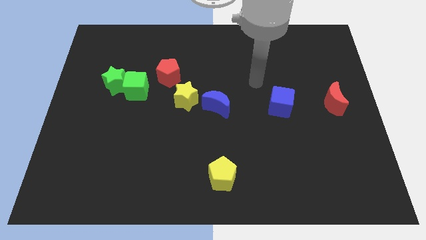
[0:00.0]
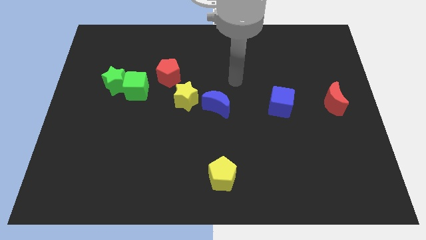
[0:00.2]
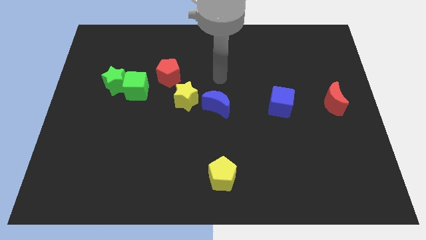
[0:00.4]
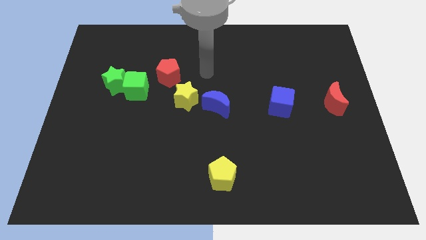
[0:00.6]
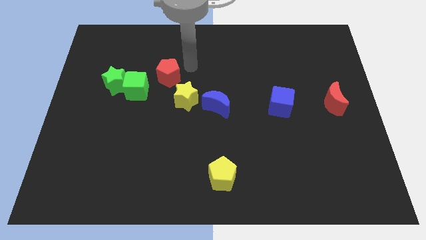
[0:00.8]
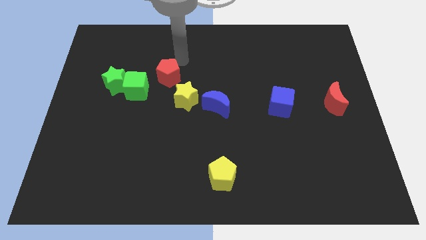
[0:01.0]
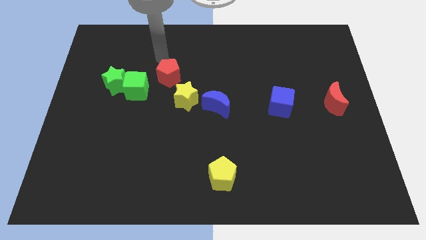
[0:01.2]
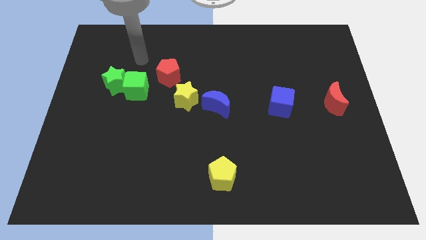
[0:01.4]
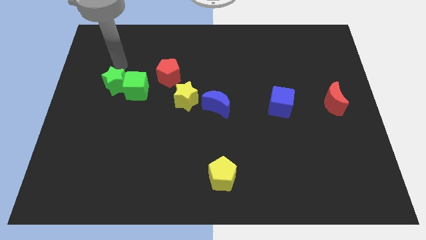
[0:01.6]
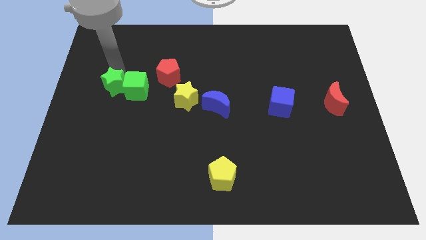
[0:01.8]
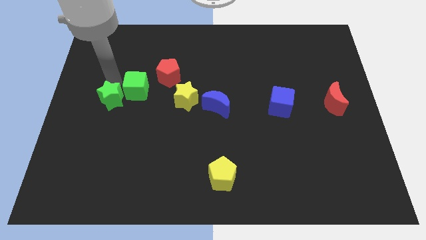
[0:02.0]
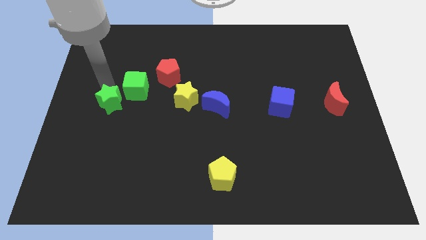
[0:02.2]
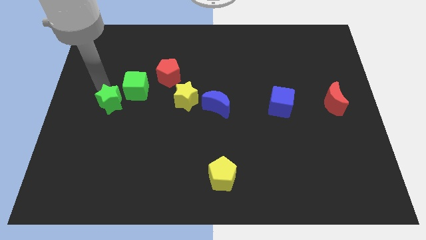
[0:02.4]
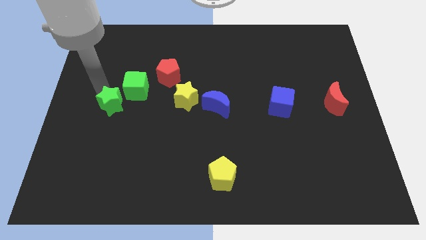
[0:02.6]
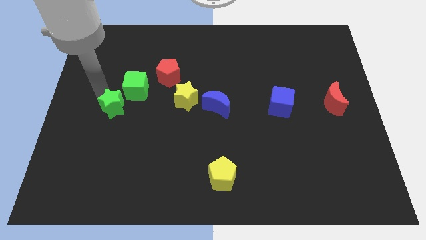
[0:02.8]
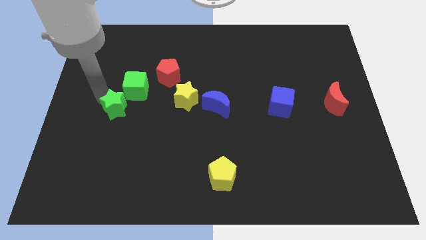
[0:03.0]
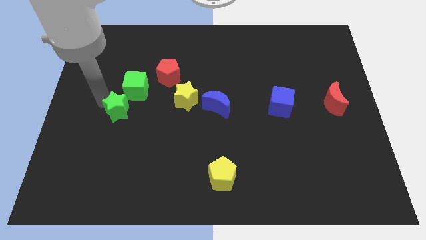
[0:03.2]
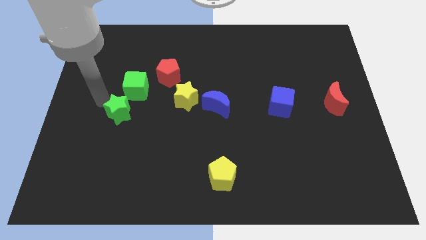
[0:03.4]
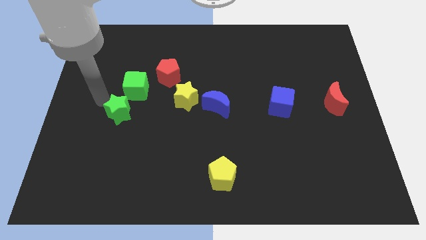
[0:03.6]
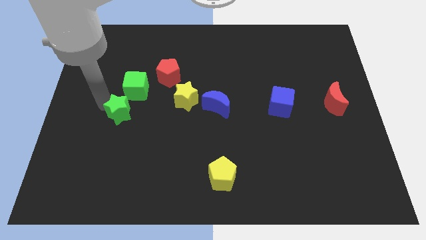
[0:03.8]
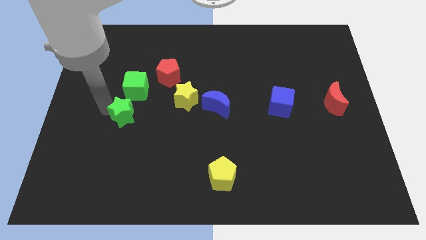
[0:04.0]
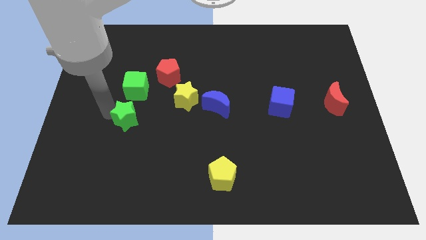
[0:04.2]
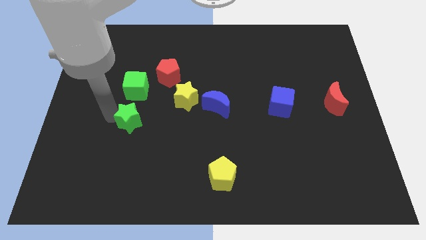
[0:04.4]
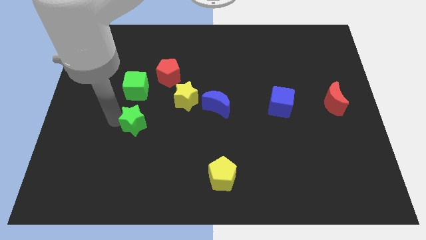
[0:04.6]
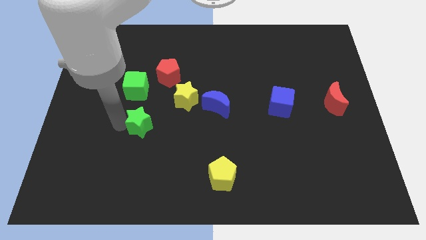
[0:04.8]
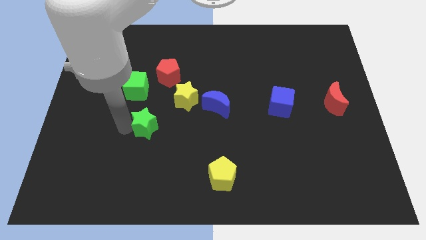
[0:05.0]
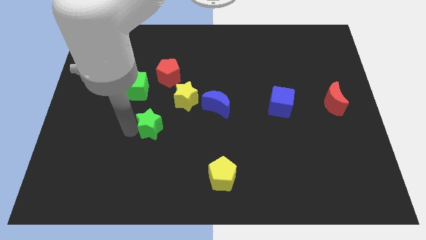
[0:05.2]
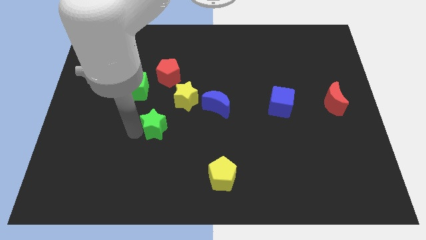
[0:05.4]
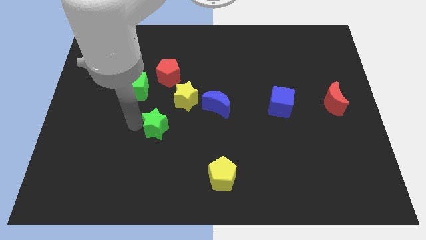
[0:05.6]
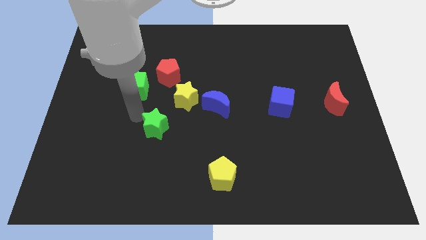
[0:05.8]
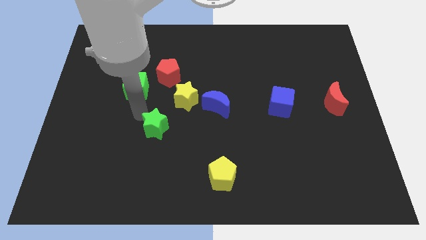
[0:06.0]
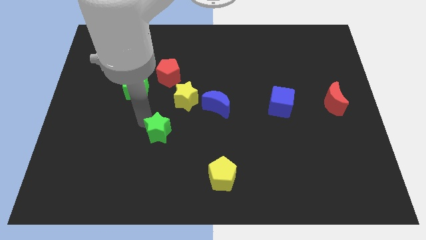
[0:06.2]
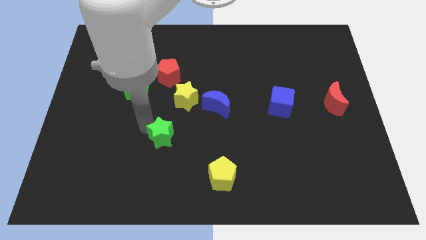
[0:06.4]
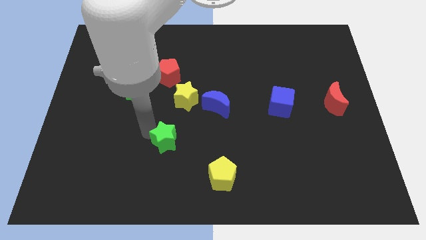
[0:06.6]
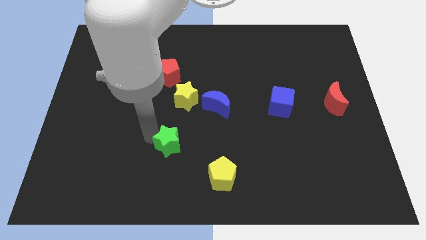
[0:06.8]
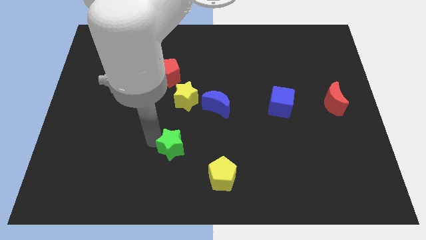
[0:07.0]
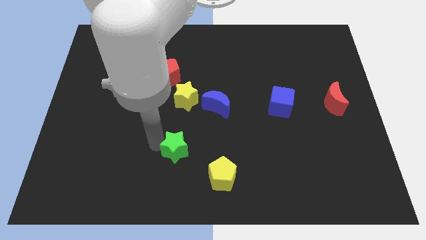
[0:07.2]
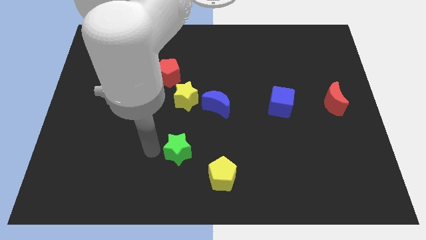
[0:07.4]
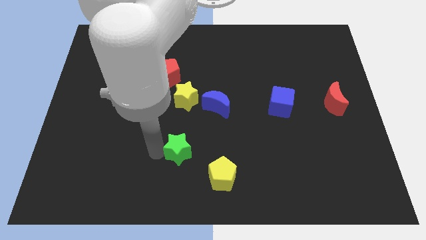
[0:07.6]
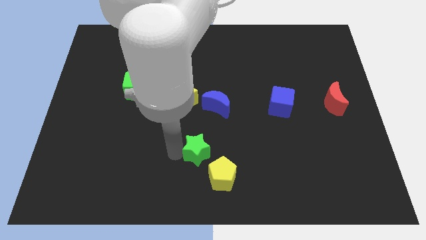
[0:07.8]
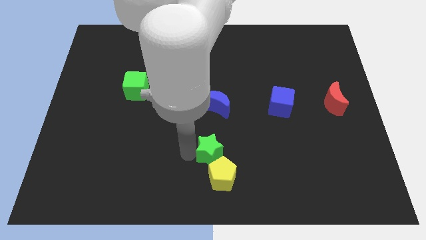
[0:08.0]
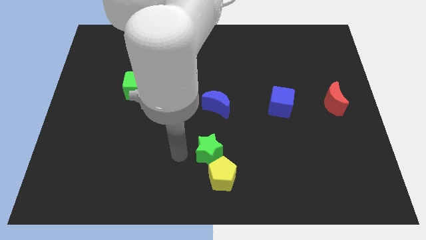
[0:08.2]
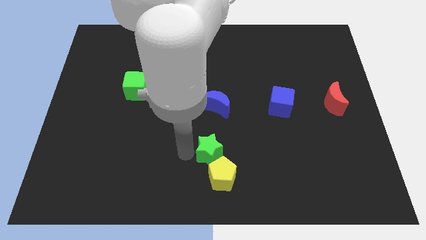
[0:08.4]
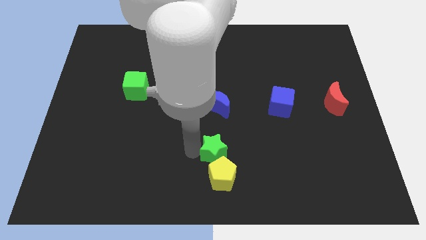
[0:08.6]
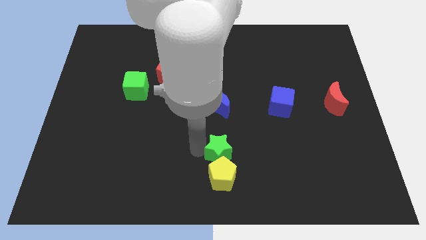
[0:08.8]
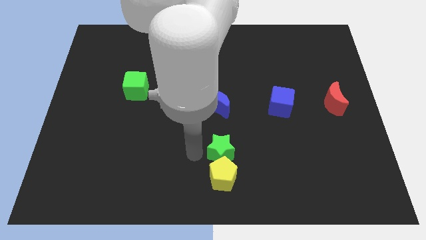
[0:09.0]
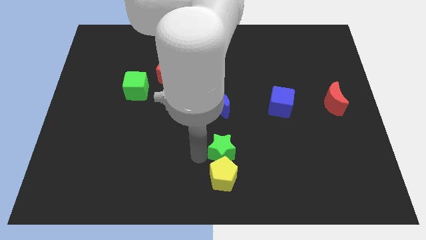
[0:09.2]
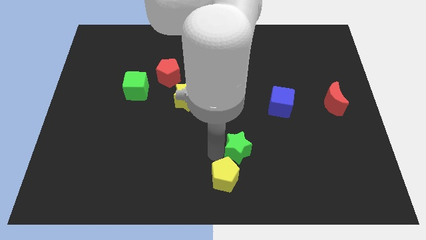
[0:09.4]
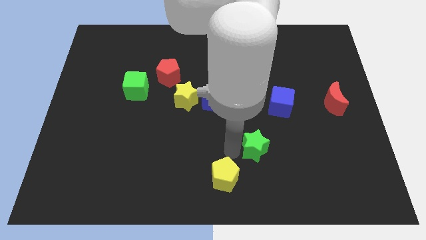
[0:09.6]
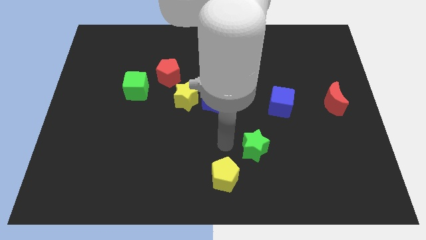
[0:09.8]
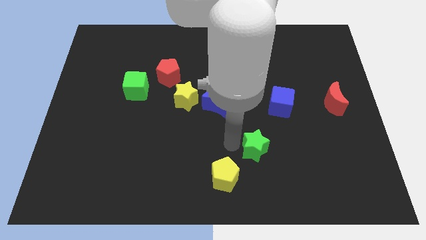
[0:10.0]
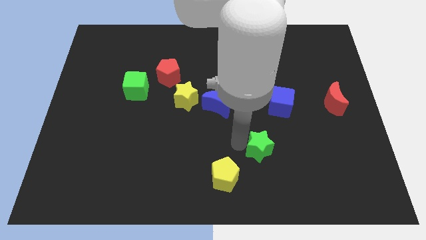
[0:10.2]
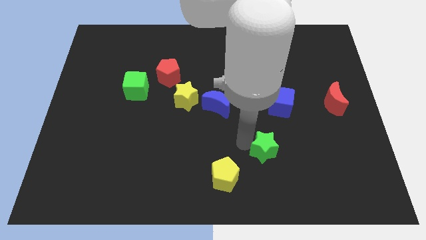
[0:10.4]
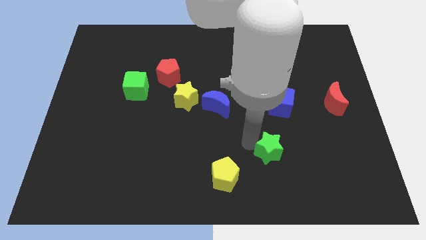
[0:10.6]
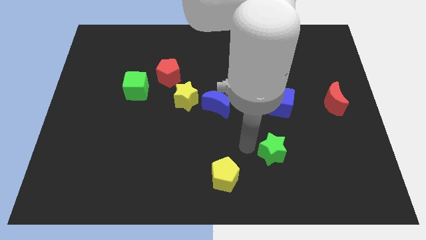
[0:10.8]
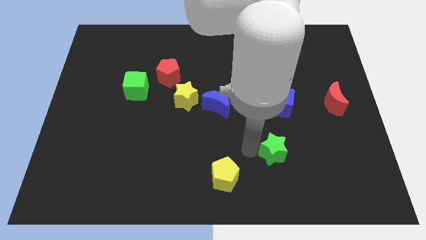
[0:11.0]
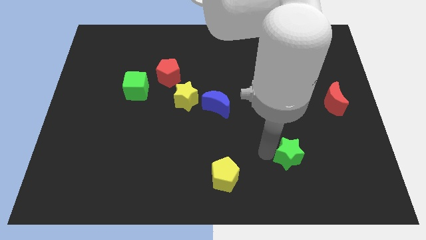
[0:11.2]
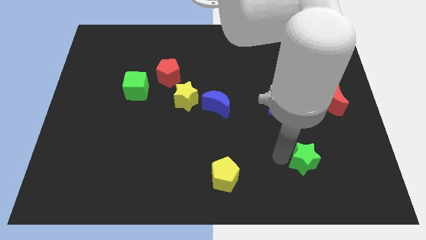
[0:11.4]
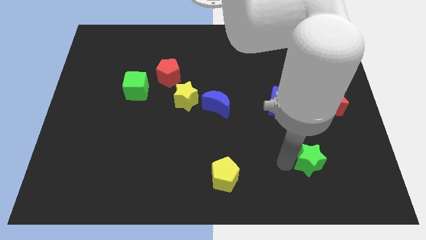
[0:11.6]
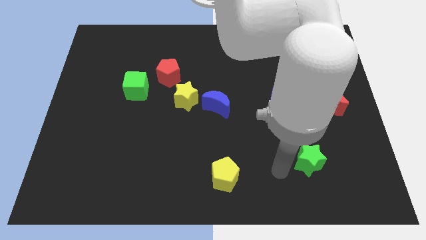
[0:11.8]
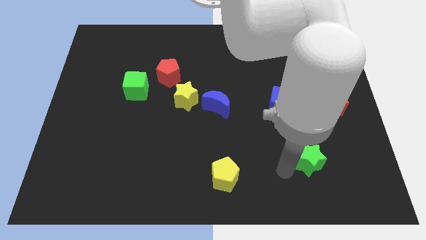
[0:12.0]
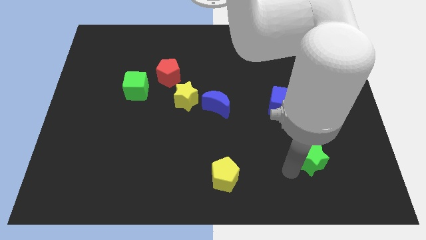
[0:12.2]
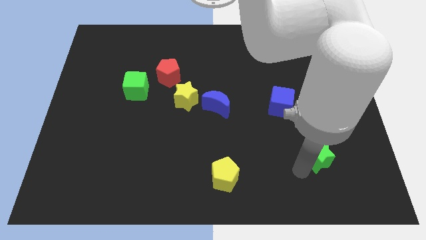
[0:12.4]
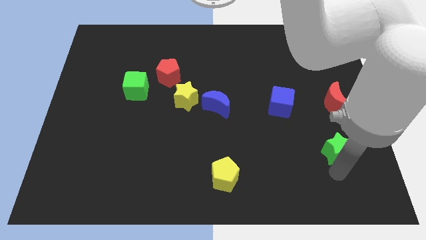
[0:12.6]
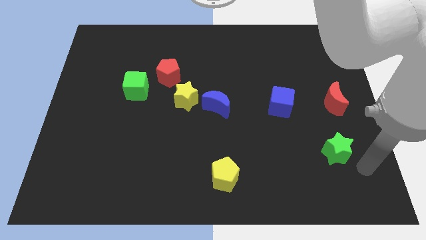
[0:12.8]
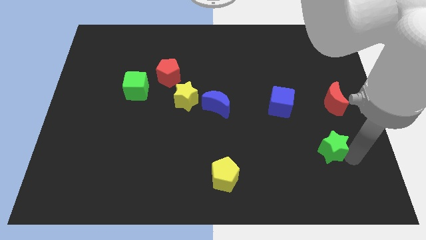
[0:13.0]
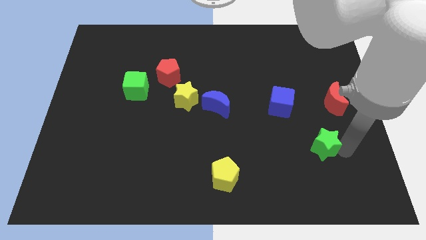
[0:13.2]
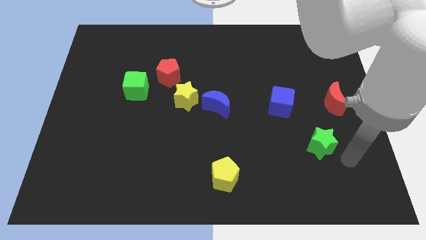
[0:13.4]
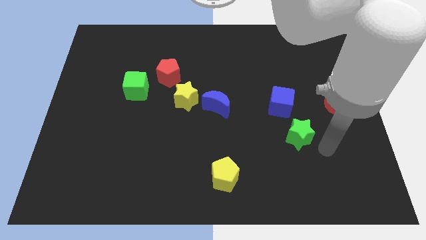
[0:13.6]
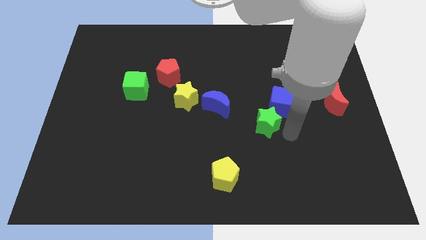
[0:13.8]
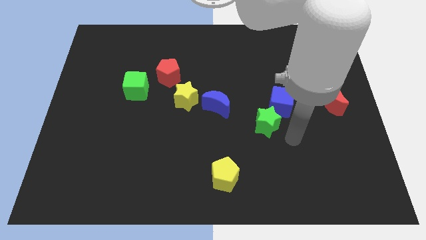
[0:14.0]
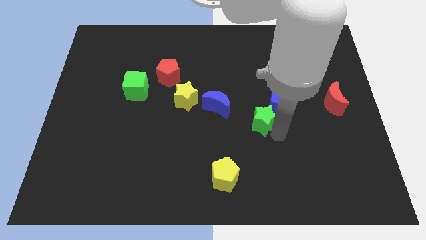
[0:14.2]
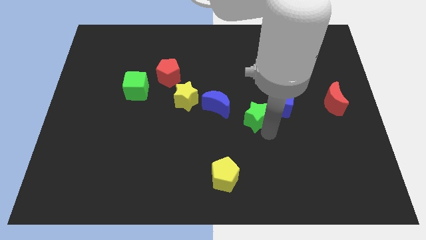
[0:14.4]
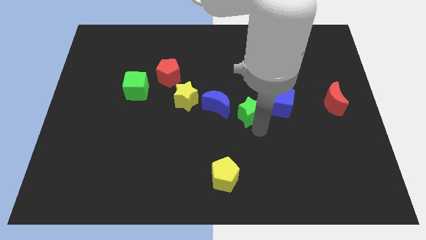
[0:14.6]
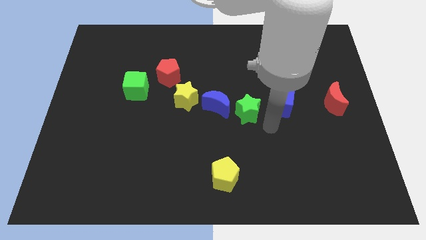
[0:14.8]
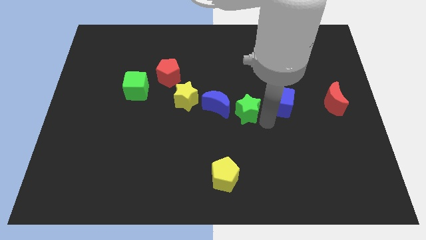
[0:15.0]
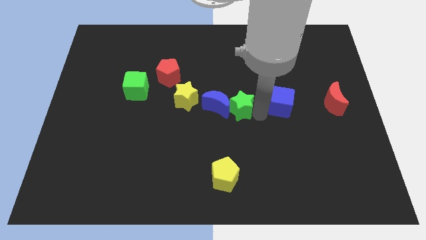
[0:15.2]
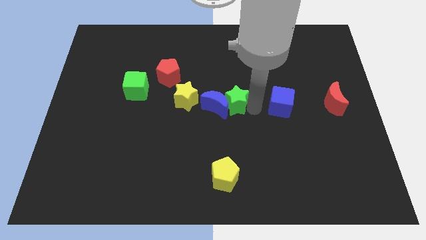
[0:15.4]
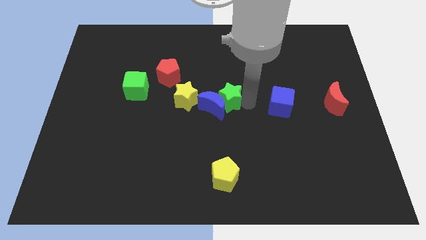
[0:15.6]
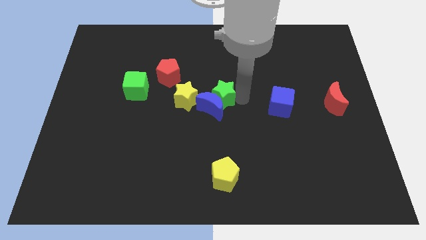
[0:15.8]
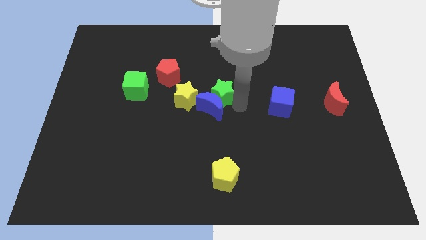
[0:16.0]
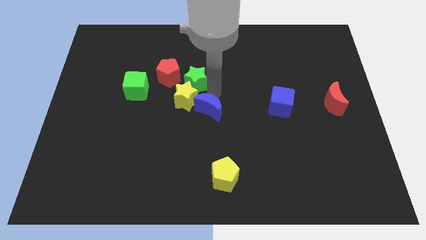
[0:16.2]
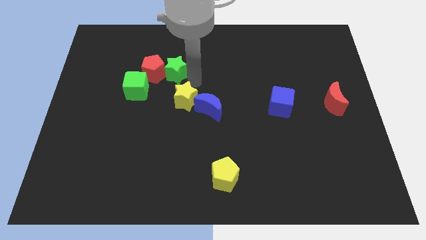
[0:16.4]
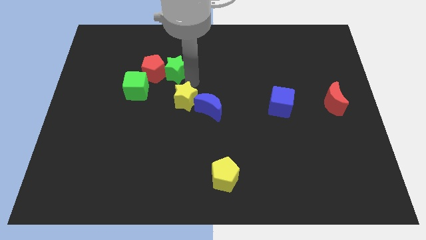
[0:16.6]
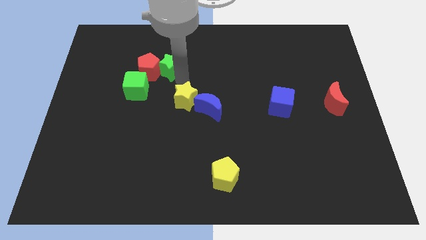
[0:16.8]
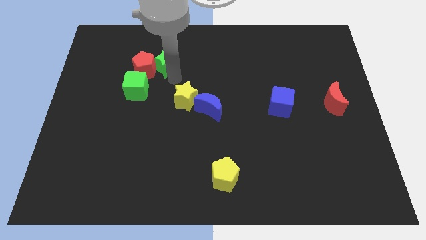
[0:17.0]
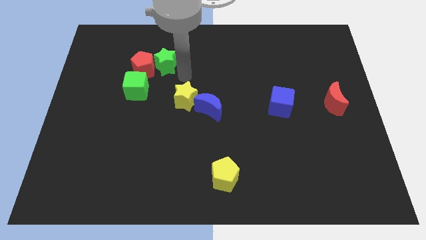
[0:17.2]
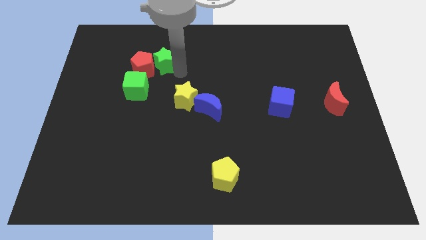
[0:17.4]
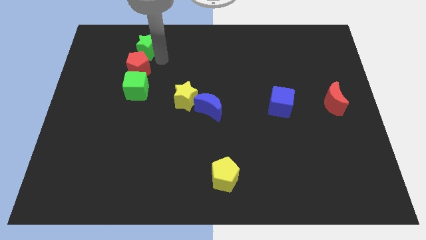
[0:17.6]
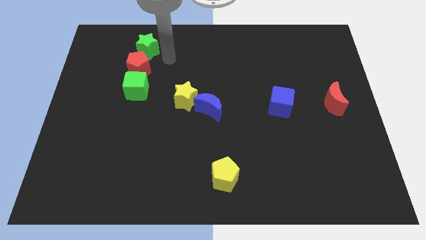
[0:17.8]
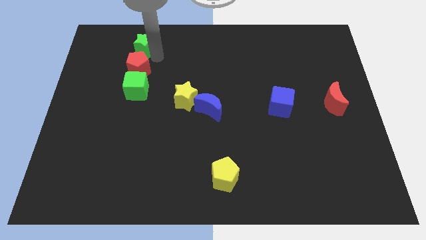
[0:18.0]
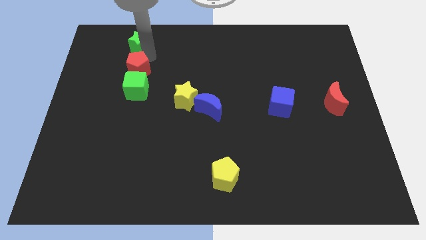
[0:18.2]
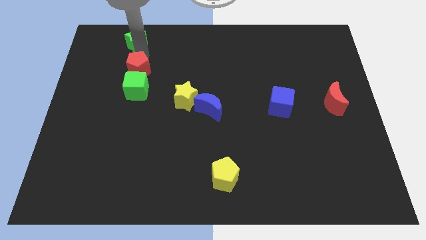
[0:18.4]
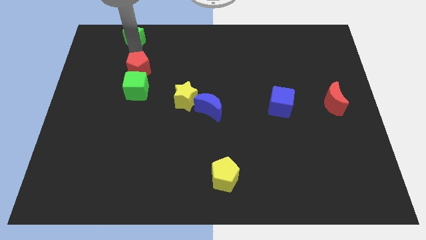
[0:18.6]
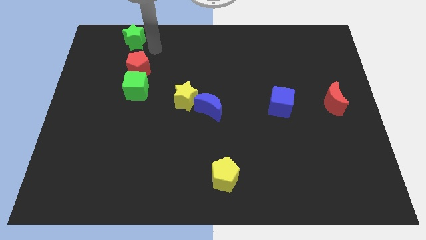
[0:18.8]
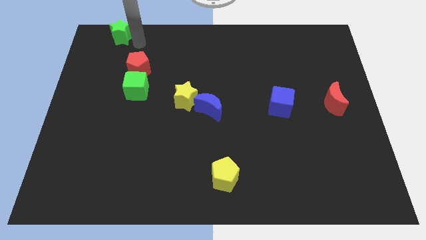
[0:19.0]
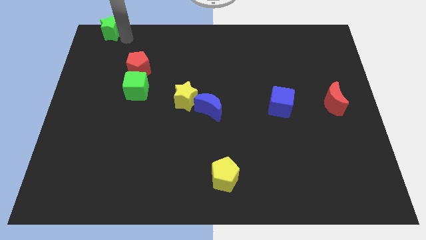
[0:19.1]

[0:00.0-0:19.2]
put the green star to the top left
